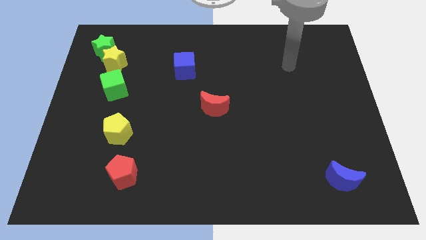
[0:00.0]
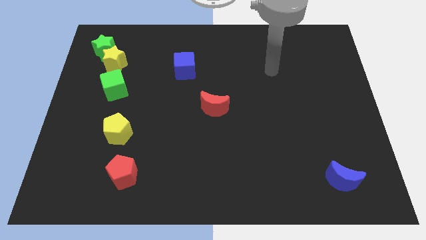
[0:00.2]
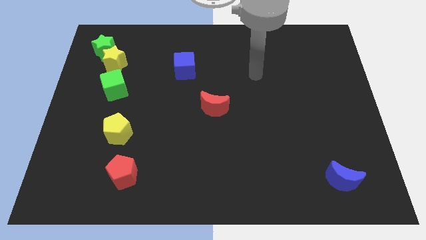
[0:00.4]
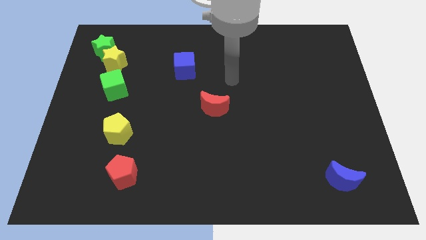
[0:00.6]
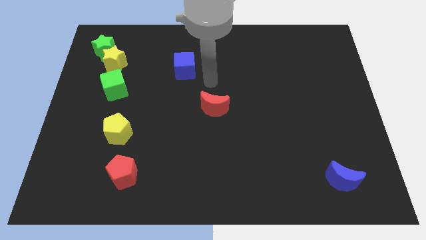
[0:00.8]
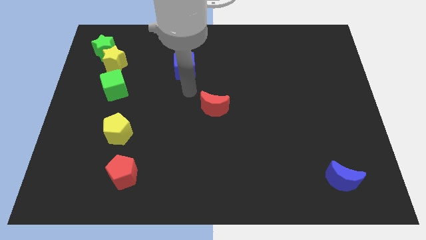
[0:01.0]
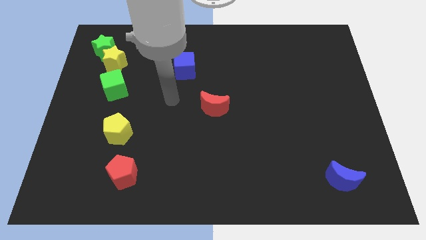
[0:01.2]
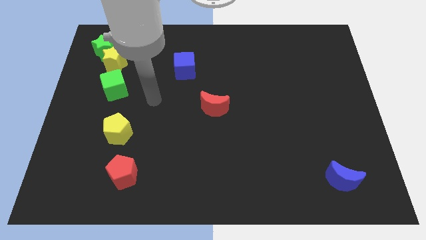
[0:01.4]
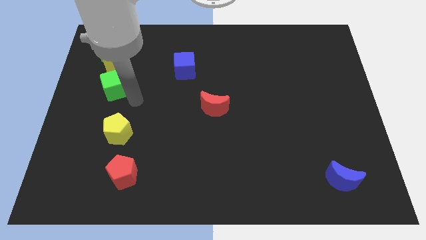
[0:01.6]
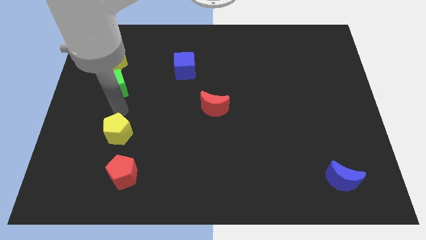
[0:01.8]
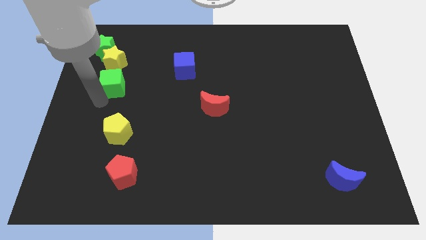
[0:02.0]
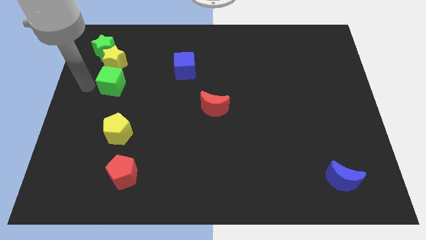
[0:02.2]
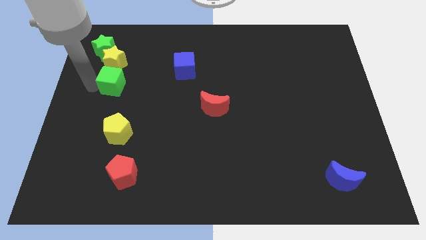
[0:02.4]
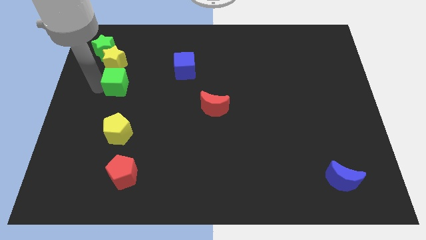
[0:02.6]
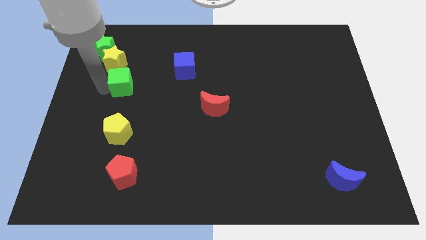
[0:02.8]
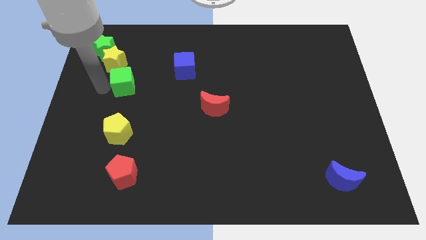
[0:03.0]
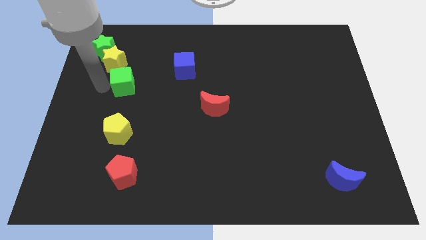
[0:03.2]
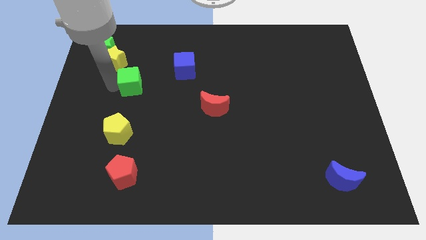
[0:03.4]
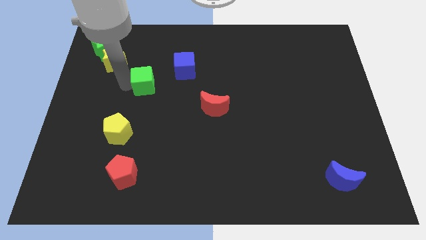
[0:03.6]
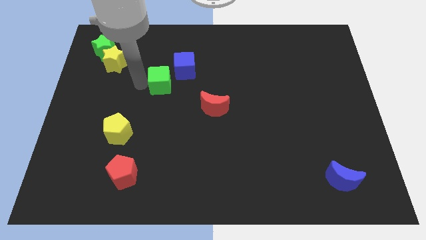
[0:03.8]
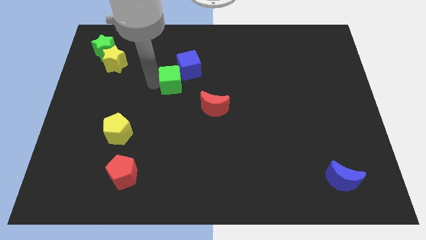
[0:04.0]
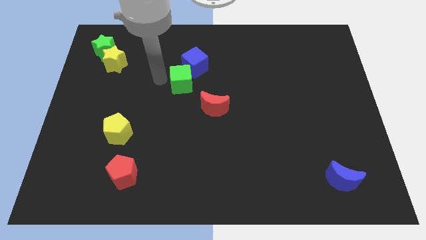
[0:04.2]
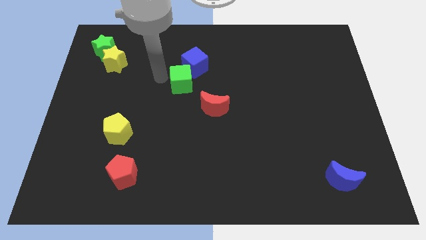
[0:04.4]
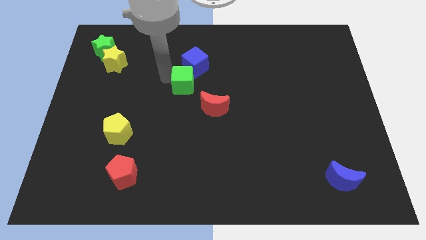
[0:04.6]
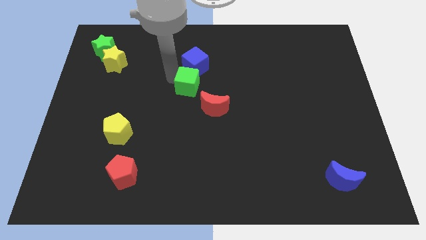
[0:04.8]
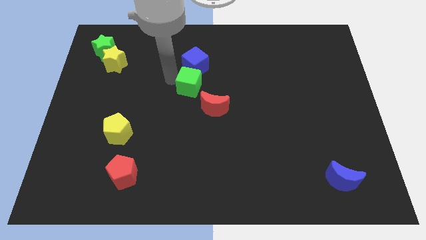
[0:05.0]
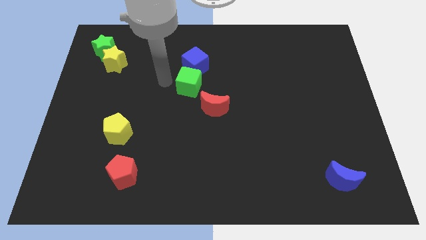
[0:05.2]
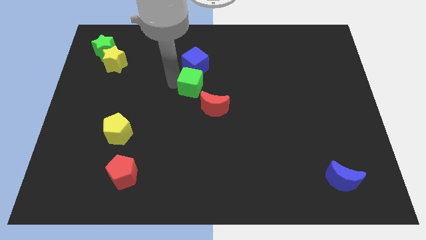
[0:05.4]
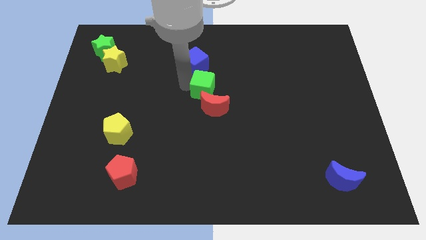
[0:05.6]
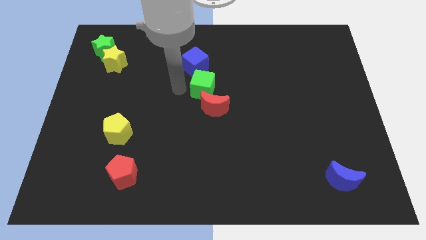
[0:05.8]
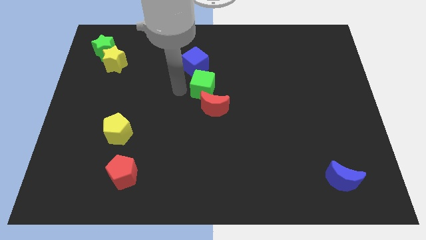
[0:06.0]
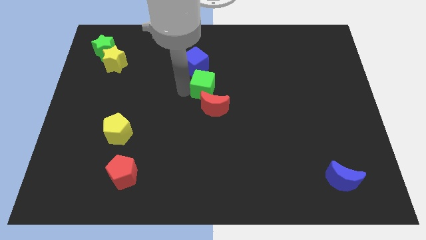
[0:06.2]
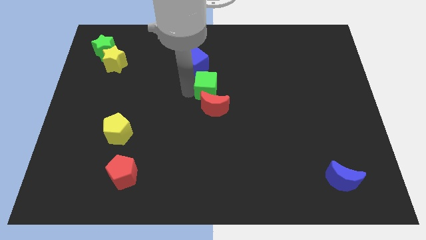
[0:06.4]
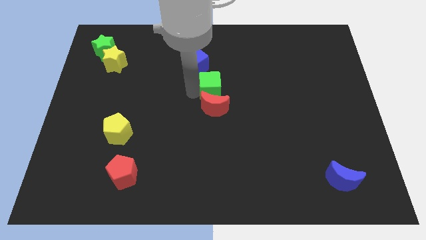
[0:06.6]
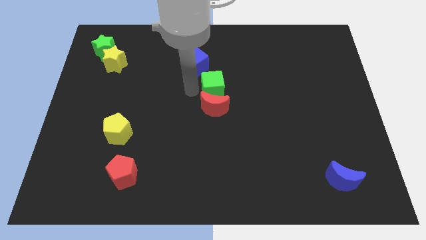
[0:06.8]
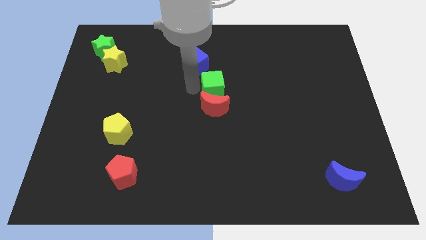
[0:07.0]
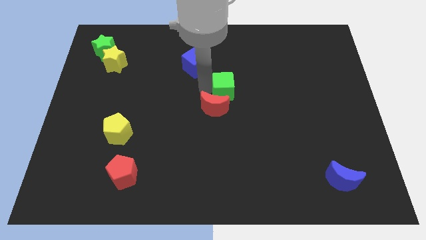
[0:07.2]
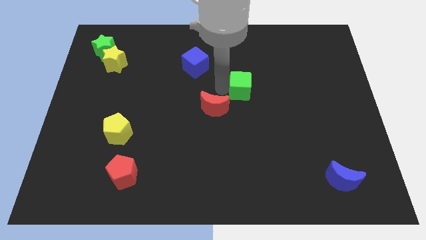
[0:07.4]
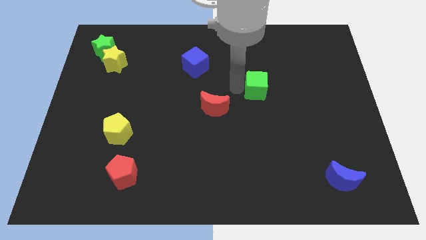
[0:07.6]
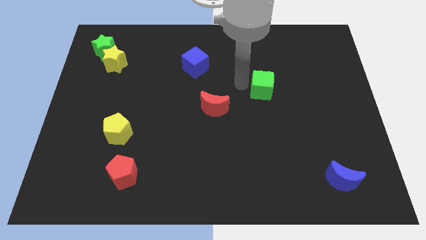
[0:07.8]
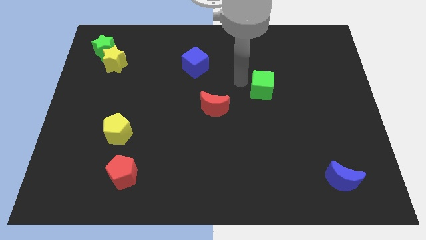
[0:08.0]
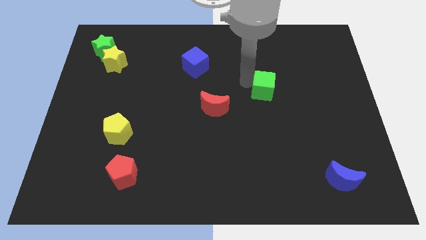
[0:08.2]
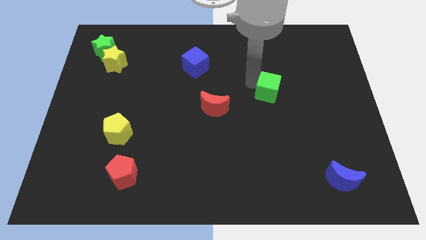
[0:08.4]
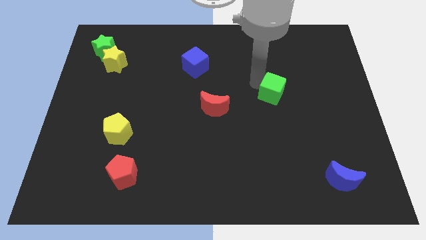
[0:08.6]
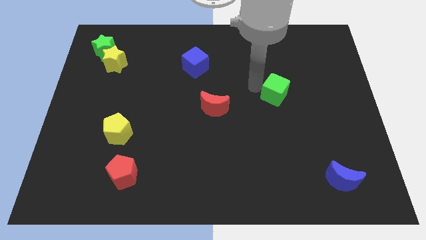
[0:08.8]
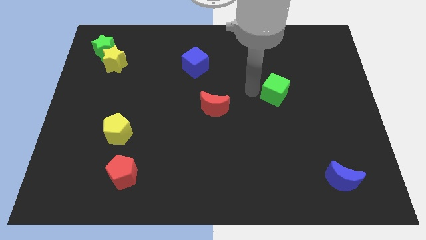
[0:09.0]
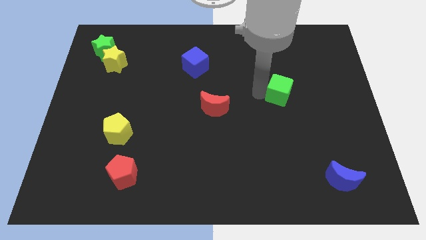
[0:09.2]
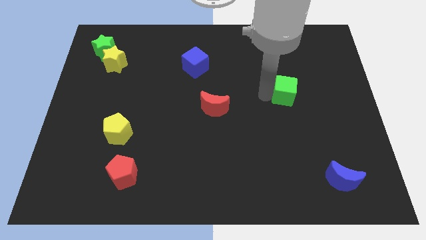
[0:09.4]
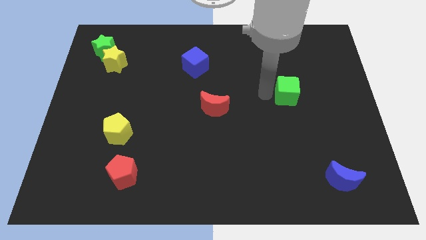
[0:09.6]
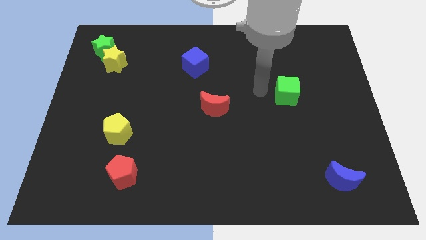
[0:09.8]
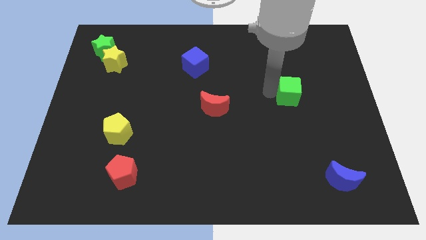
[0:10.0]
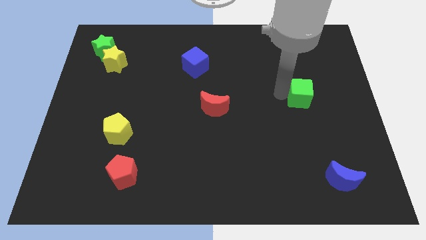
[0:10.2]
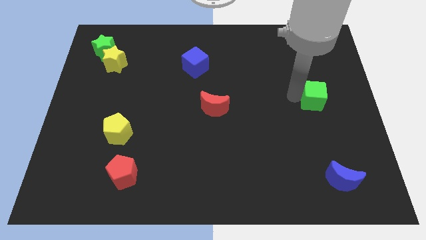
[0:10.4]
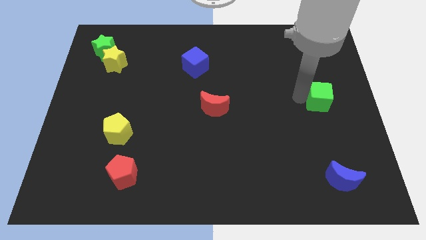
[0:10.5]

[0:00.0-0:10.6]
put the green cube to the right side of the board

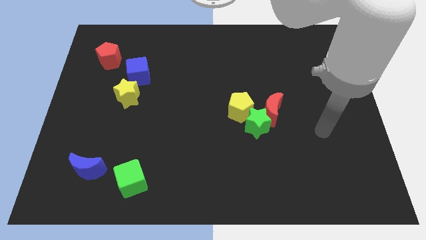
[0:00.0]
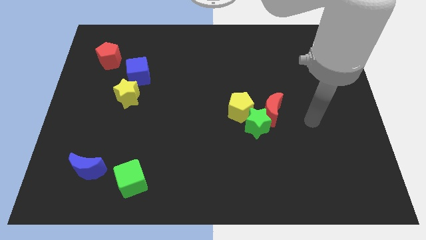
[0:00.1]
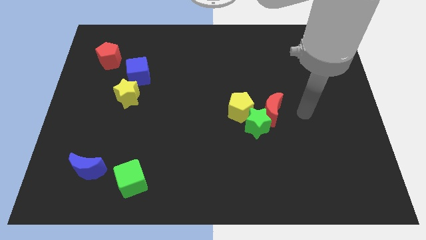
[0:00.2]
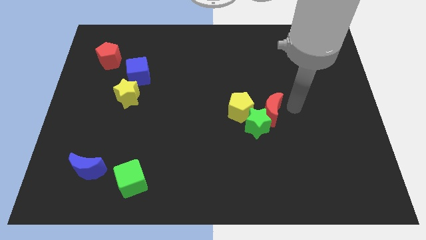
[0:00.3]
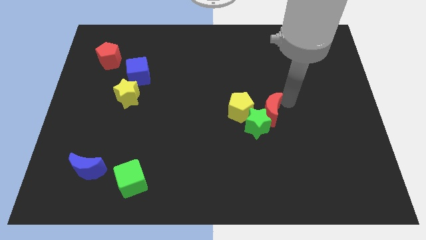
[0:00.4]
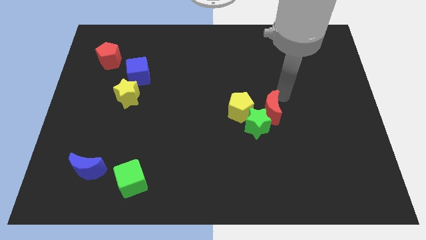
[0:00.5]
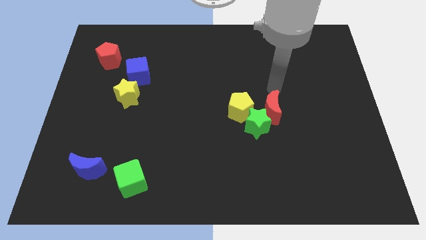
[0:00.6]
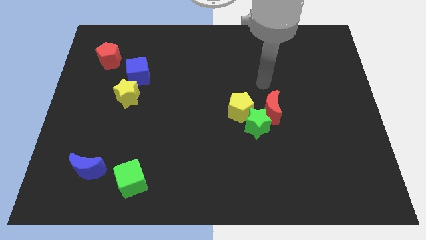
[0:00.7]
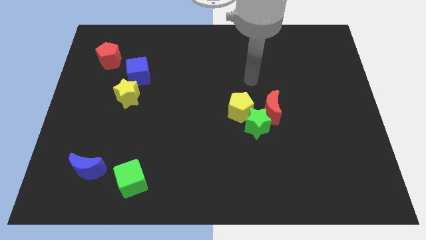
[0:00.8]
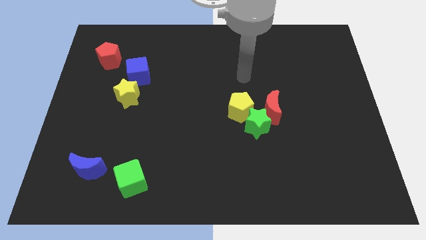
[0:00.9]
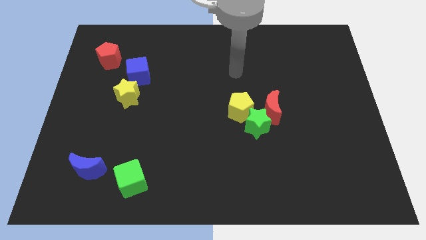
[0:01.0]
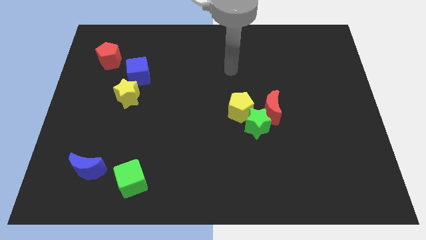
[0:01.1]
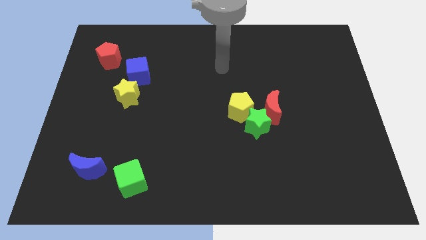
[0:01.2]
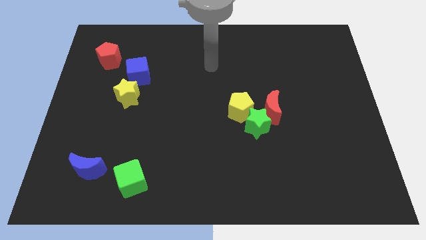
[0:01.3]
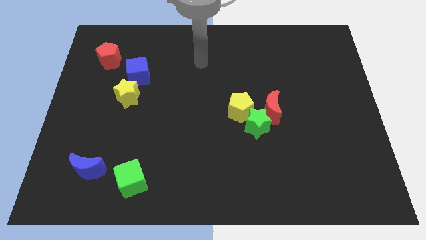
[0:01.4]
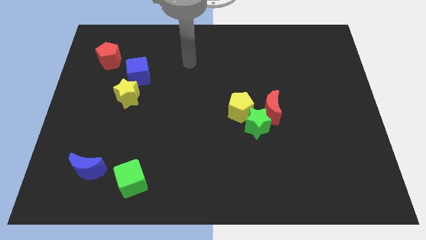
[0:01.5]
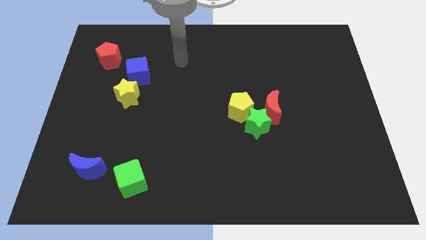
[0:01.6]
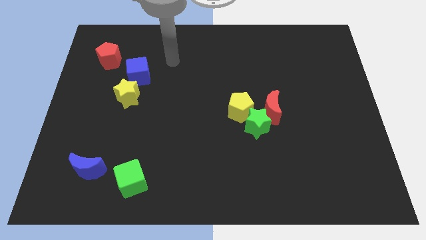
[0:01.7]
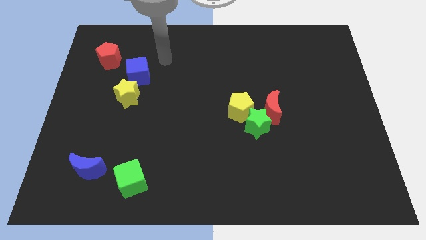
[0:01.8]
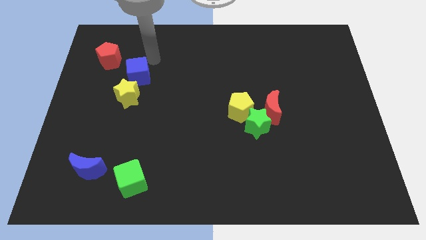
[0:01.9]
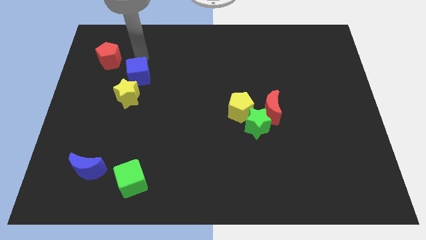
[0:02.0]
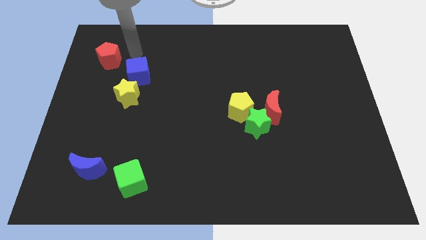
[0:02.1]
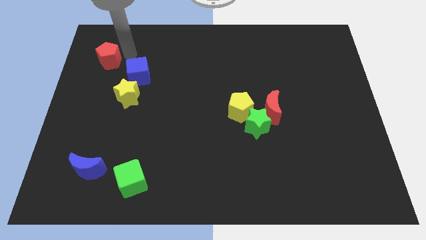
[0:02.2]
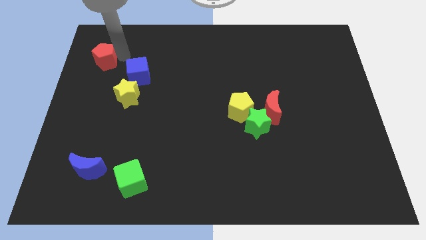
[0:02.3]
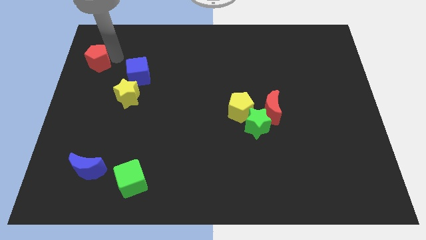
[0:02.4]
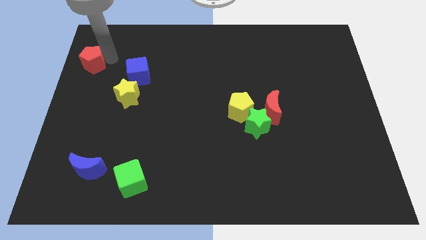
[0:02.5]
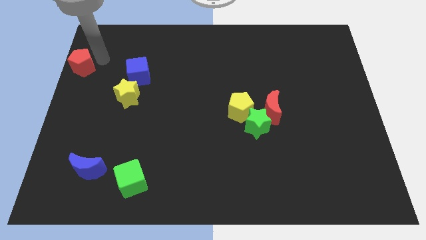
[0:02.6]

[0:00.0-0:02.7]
slide the red pentagon to the center left
